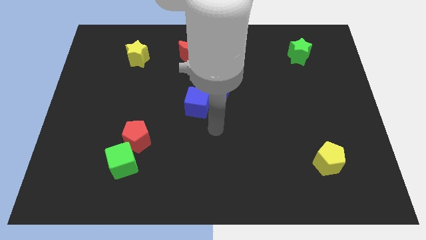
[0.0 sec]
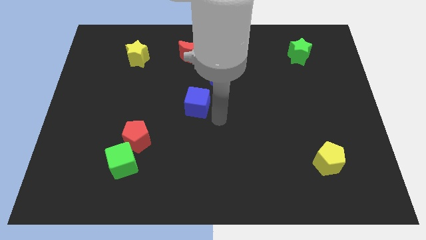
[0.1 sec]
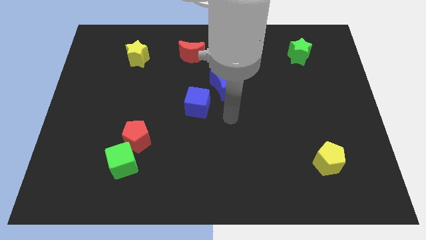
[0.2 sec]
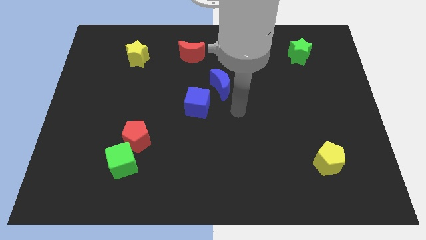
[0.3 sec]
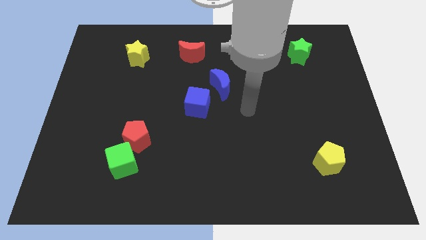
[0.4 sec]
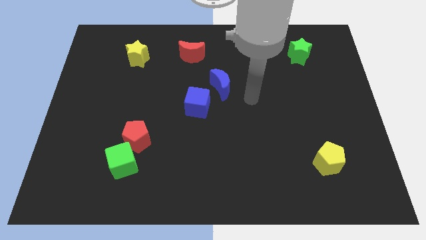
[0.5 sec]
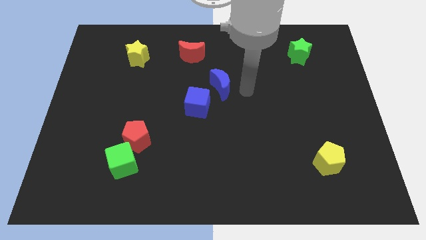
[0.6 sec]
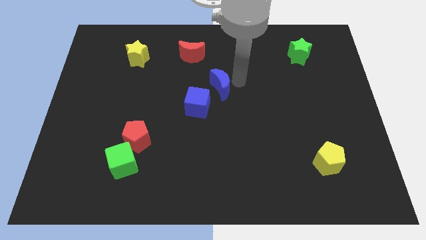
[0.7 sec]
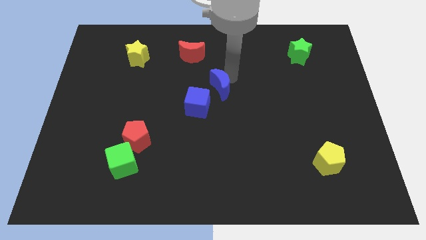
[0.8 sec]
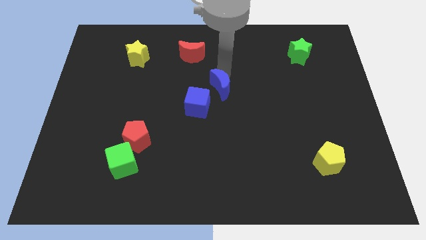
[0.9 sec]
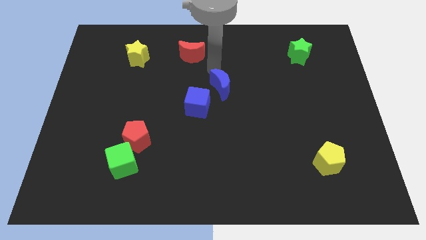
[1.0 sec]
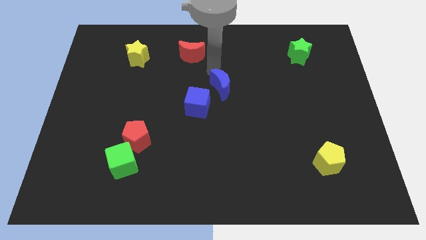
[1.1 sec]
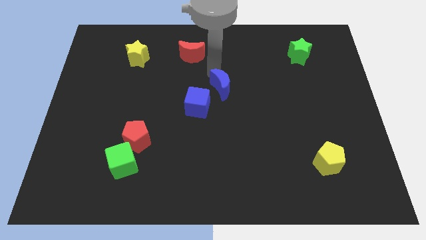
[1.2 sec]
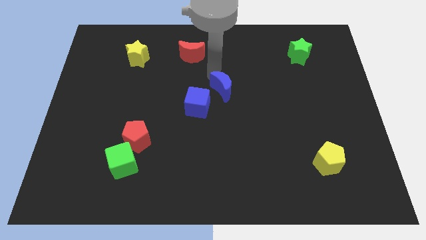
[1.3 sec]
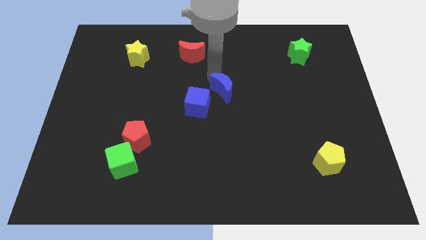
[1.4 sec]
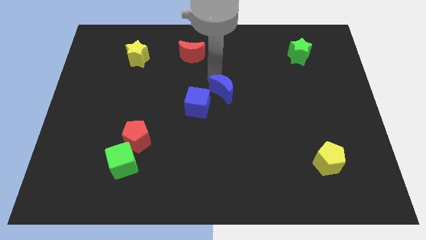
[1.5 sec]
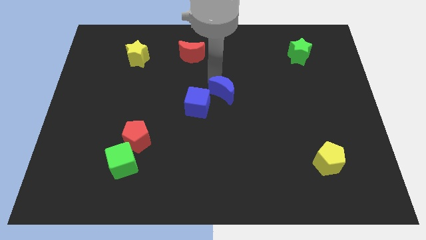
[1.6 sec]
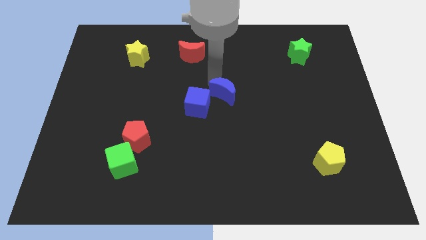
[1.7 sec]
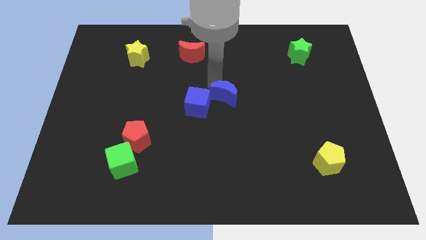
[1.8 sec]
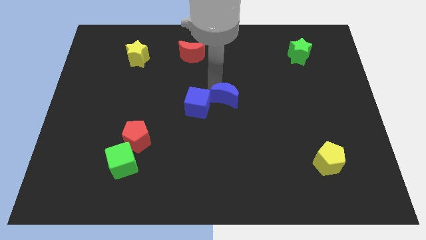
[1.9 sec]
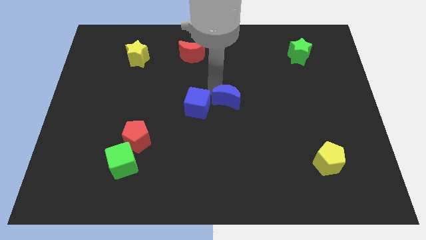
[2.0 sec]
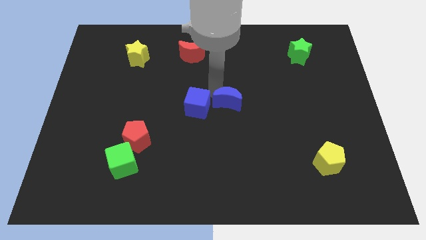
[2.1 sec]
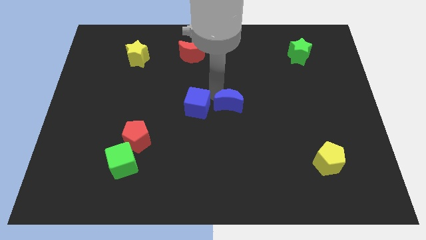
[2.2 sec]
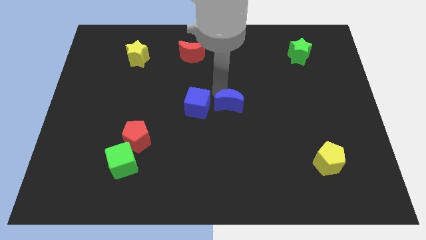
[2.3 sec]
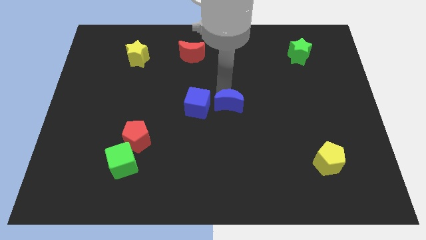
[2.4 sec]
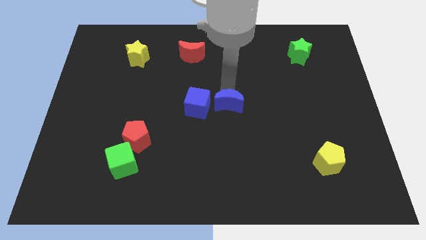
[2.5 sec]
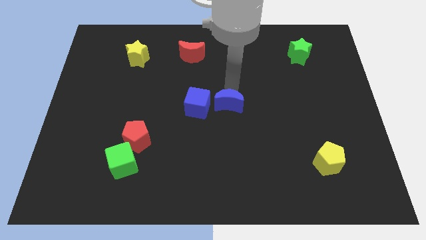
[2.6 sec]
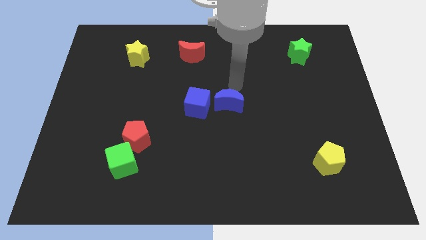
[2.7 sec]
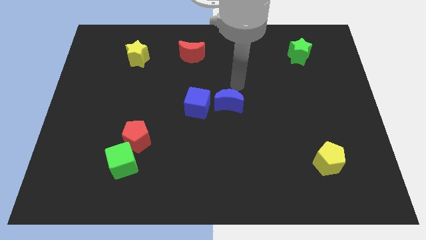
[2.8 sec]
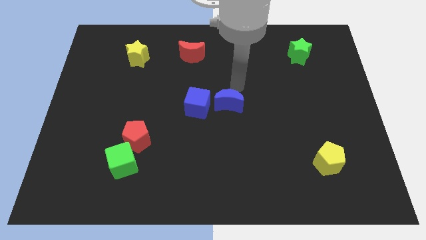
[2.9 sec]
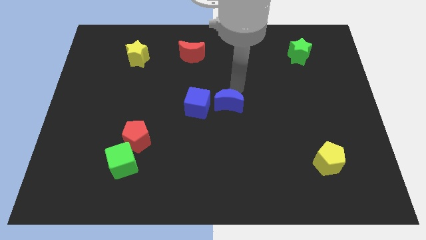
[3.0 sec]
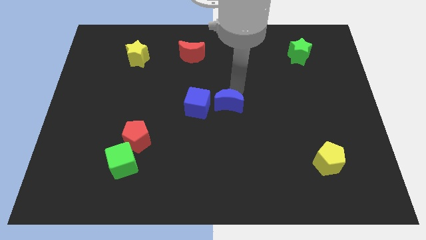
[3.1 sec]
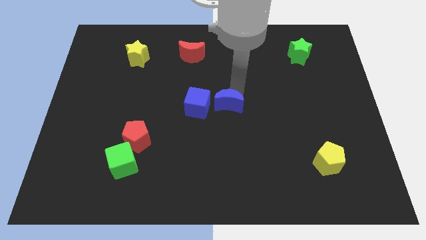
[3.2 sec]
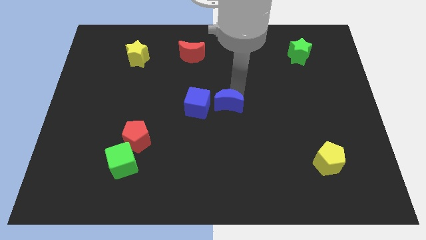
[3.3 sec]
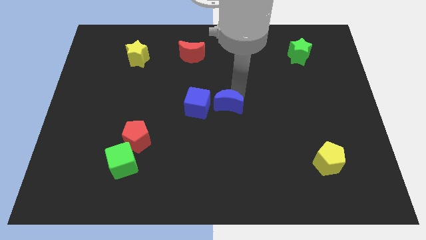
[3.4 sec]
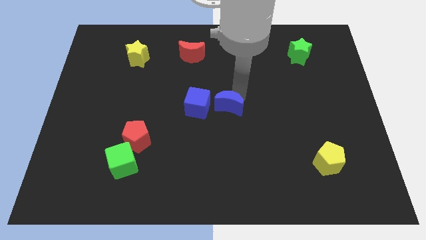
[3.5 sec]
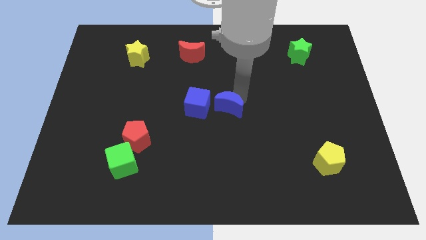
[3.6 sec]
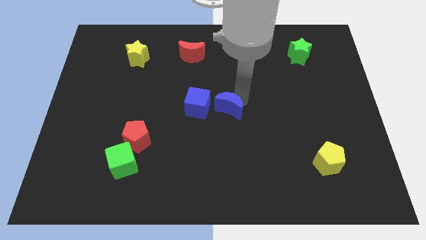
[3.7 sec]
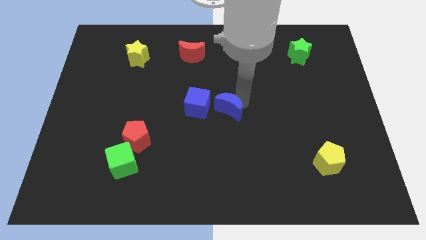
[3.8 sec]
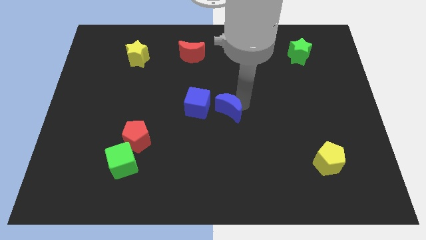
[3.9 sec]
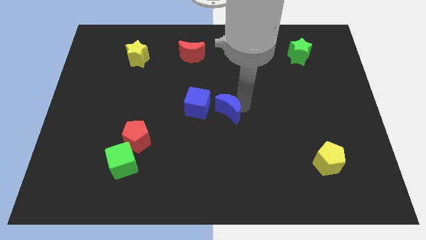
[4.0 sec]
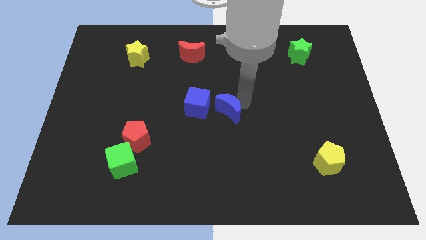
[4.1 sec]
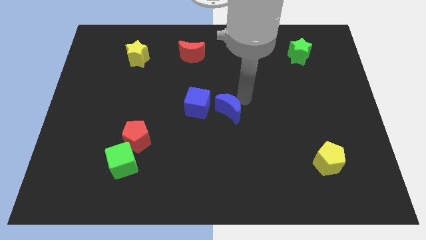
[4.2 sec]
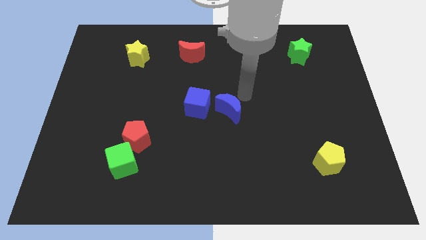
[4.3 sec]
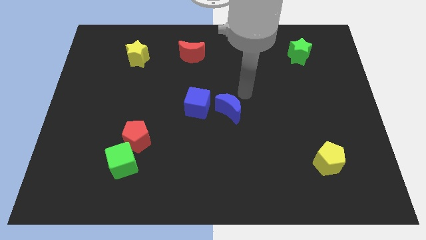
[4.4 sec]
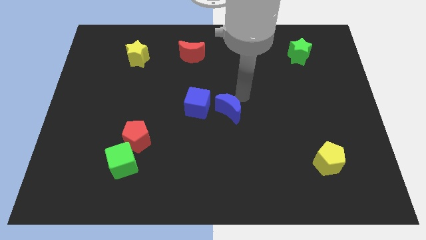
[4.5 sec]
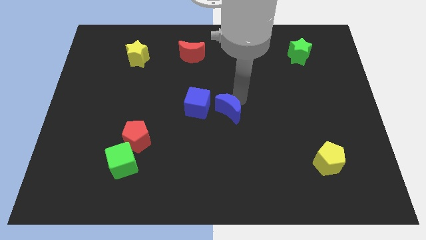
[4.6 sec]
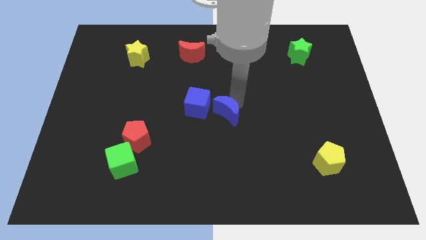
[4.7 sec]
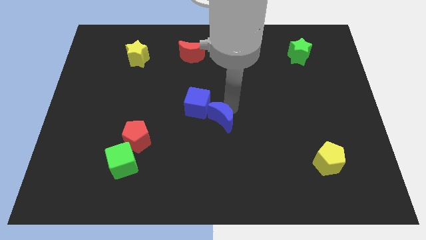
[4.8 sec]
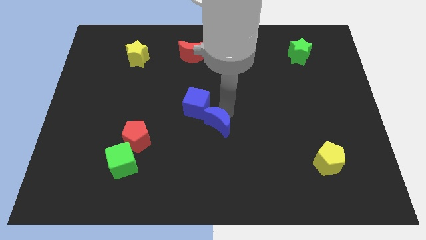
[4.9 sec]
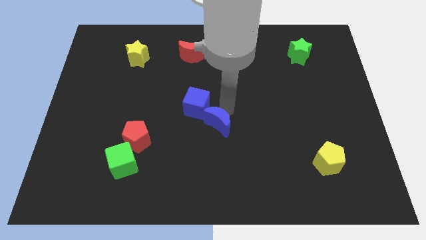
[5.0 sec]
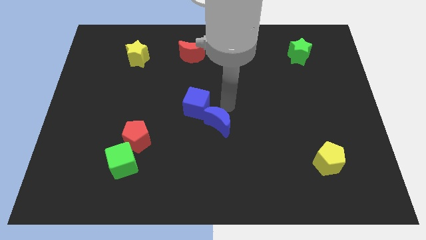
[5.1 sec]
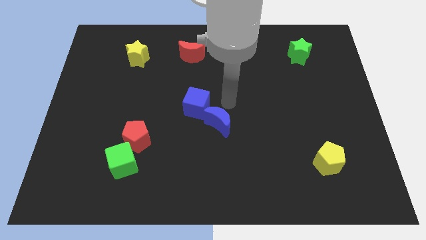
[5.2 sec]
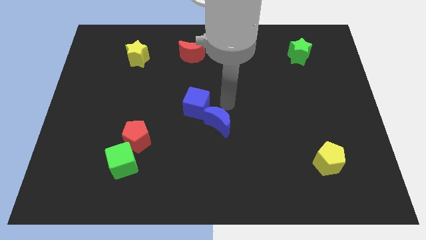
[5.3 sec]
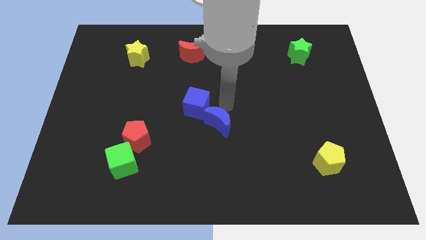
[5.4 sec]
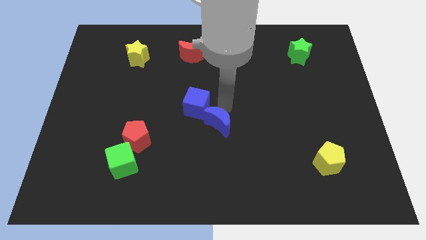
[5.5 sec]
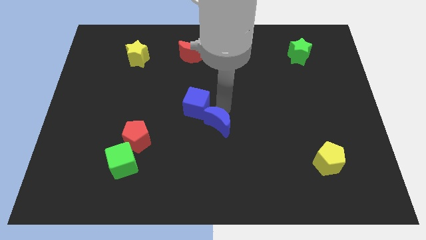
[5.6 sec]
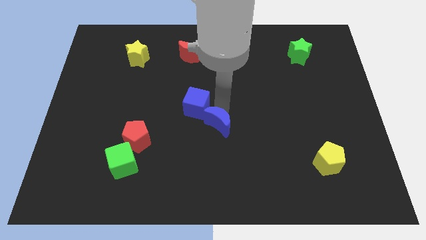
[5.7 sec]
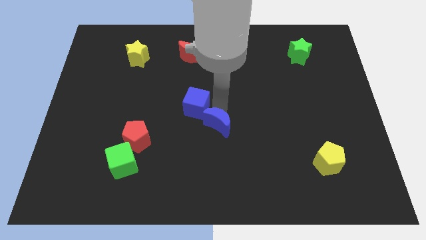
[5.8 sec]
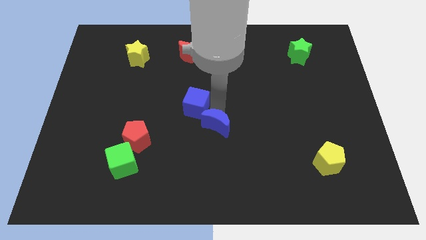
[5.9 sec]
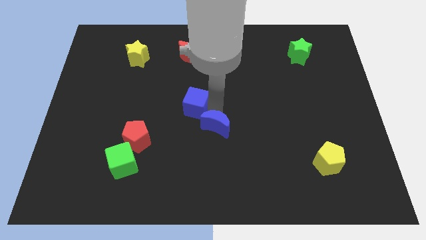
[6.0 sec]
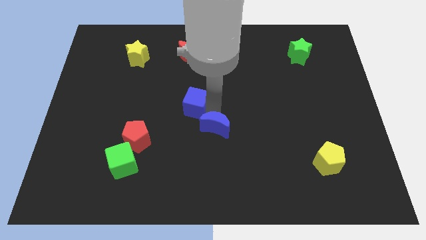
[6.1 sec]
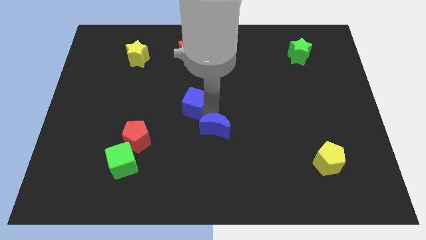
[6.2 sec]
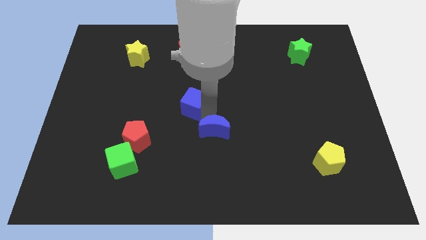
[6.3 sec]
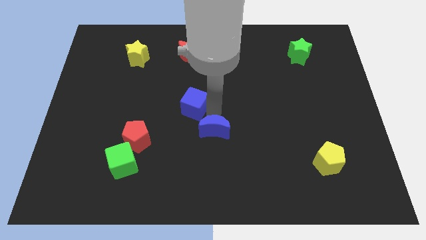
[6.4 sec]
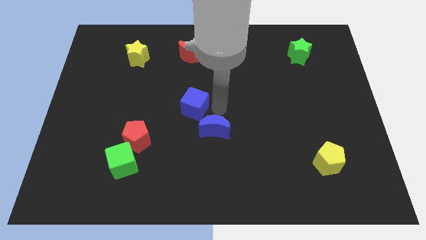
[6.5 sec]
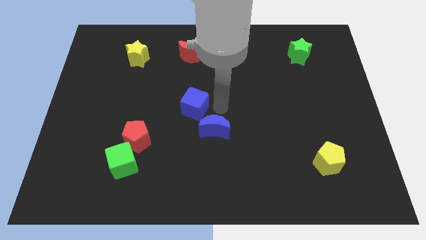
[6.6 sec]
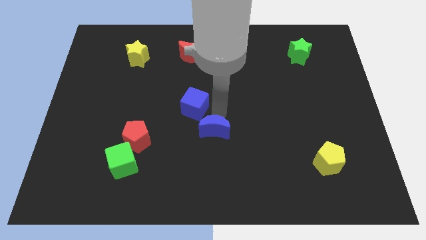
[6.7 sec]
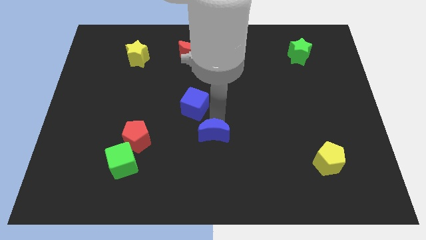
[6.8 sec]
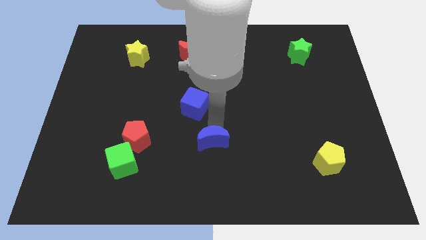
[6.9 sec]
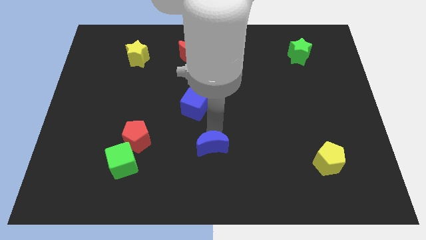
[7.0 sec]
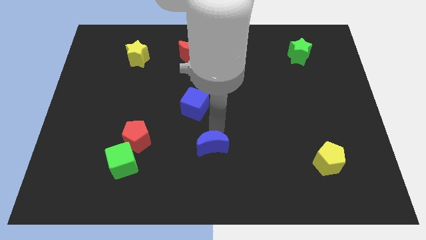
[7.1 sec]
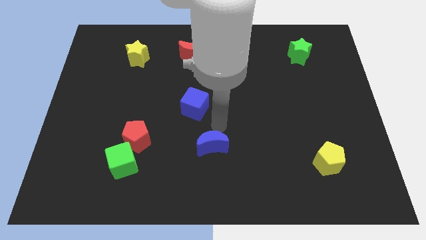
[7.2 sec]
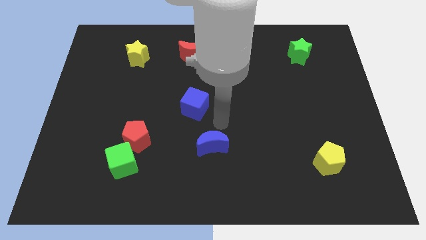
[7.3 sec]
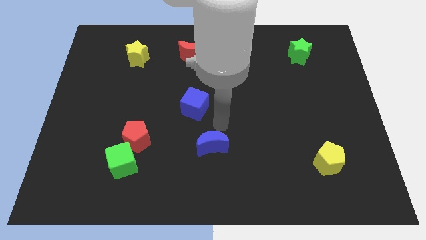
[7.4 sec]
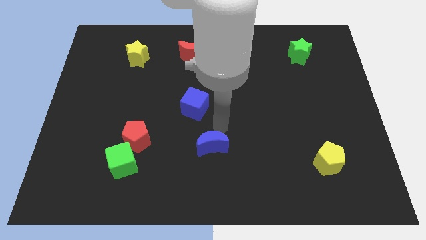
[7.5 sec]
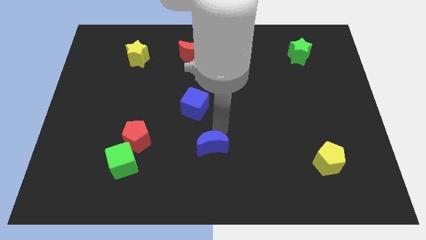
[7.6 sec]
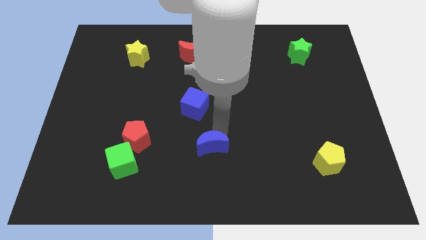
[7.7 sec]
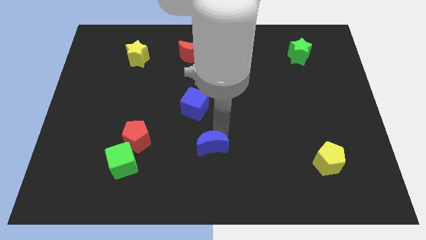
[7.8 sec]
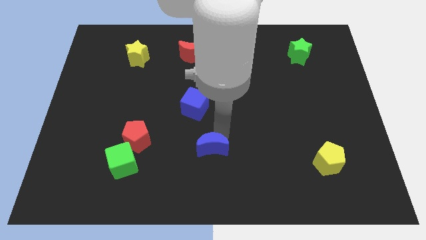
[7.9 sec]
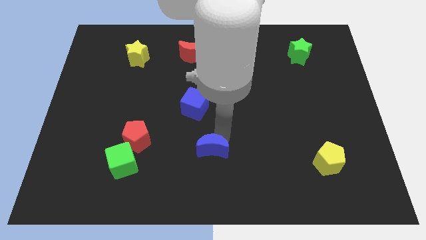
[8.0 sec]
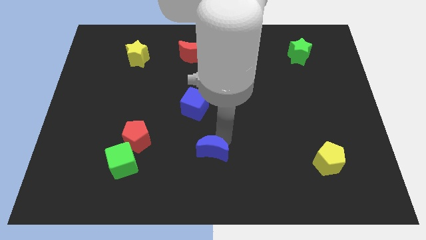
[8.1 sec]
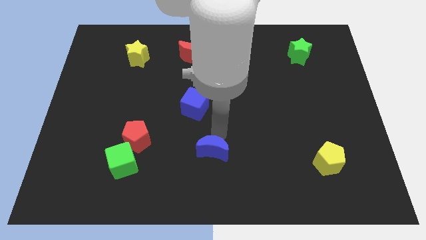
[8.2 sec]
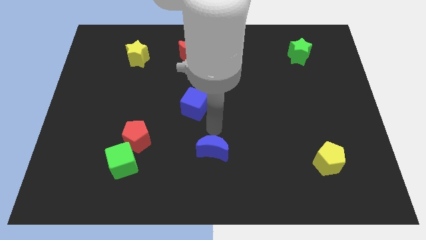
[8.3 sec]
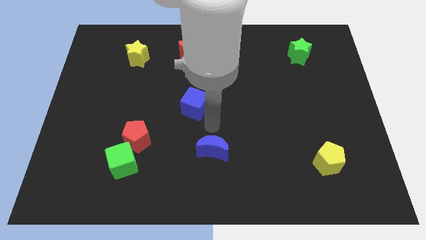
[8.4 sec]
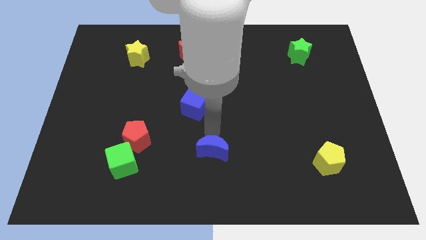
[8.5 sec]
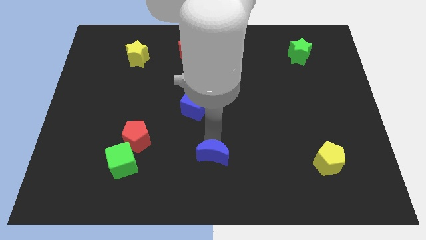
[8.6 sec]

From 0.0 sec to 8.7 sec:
push the blue moon to the bottom side
